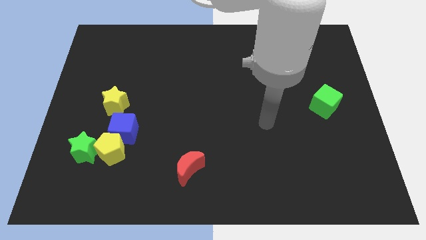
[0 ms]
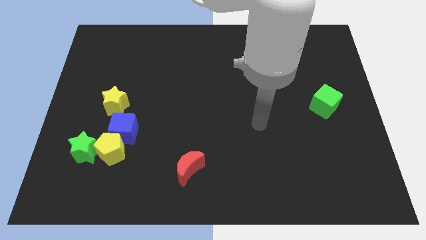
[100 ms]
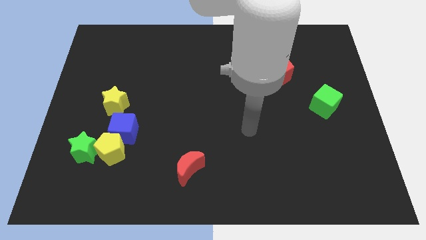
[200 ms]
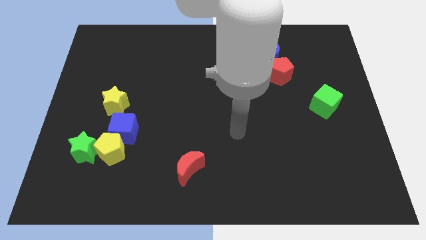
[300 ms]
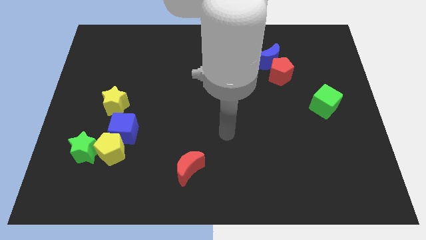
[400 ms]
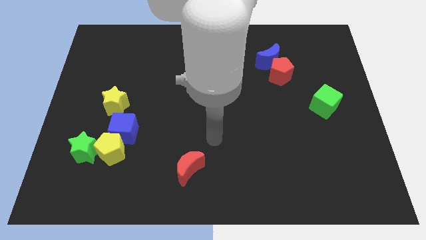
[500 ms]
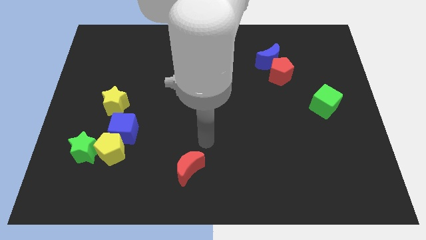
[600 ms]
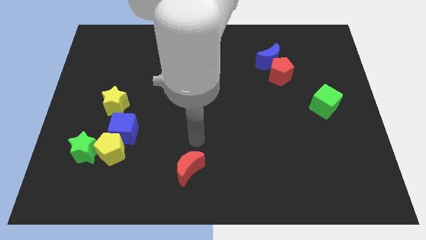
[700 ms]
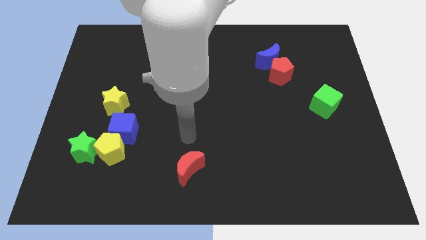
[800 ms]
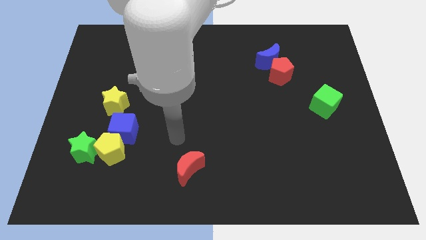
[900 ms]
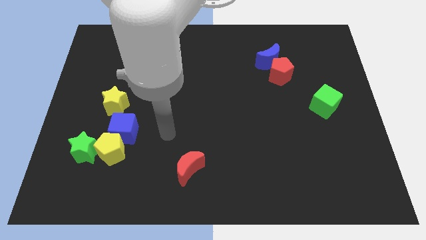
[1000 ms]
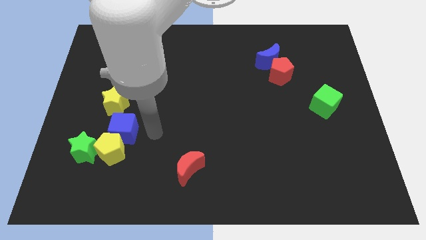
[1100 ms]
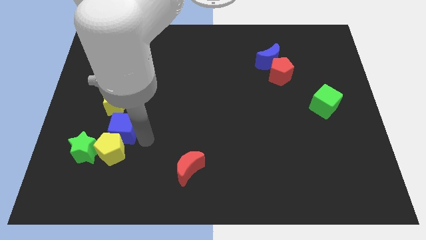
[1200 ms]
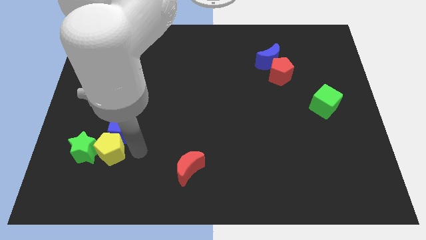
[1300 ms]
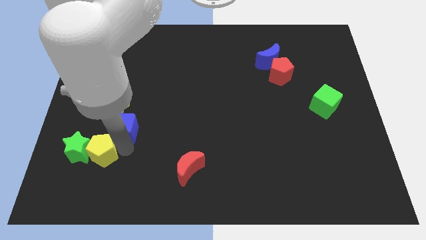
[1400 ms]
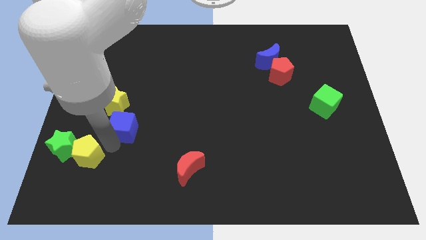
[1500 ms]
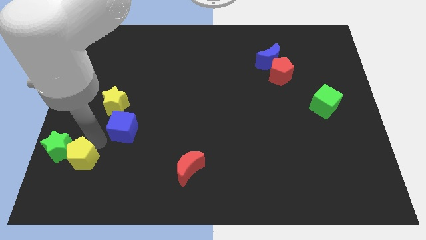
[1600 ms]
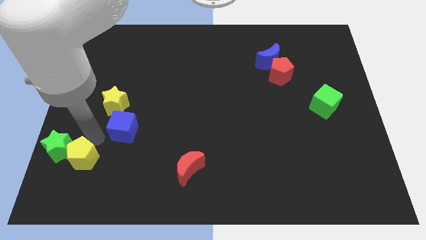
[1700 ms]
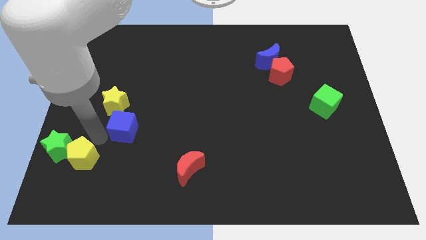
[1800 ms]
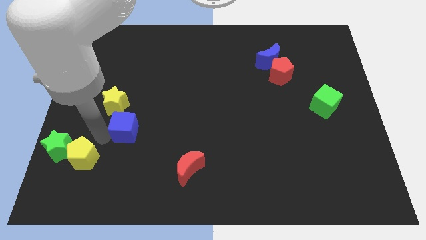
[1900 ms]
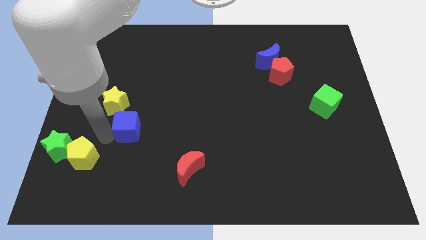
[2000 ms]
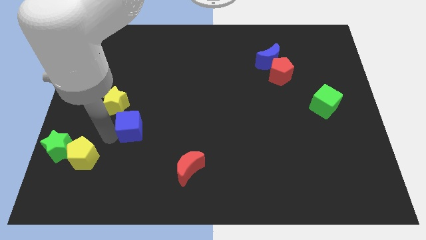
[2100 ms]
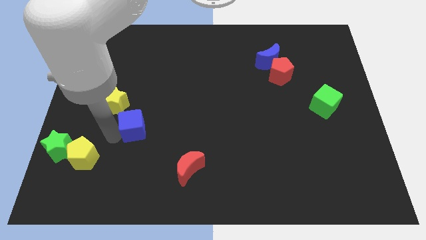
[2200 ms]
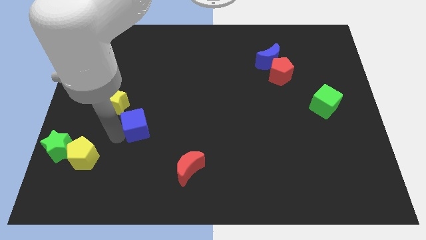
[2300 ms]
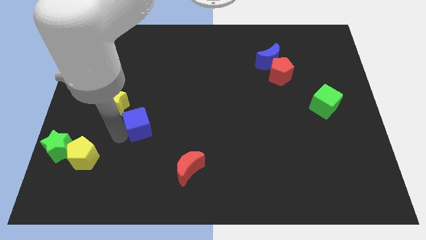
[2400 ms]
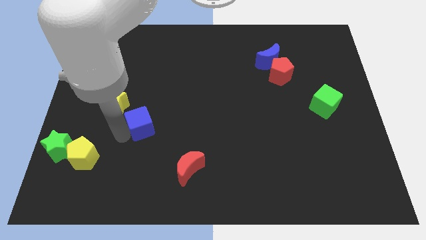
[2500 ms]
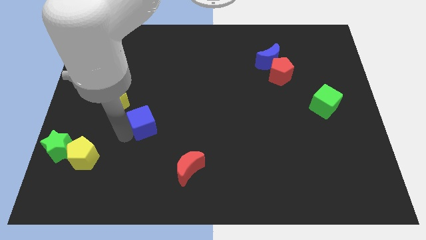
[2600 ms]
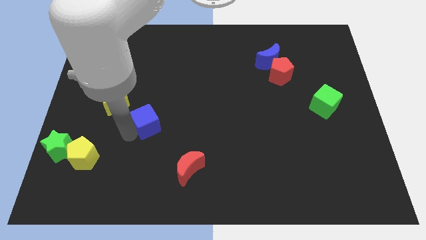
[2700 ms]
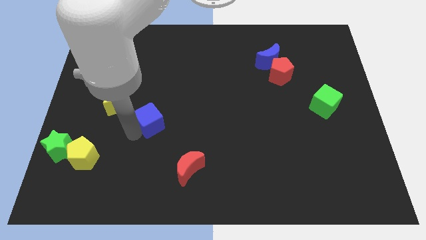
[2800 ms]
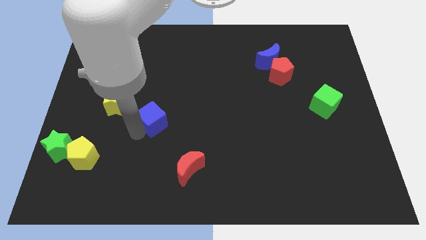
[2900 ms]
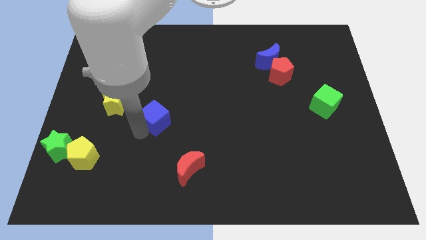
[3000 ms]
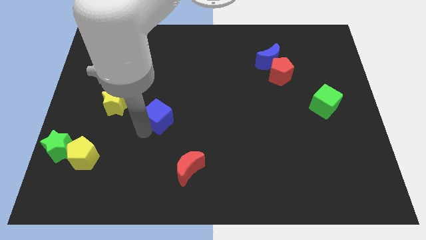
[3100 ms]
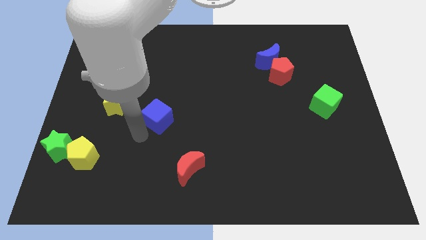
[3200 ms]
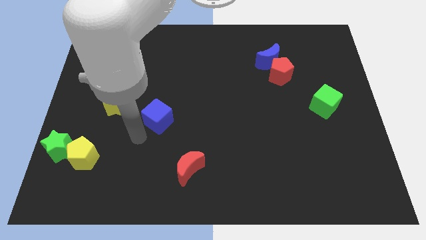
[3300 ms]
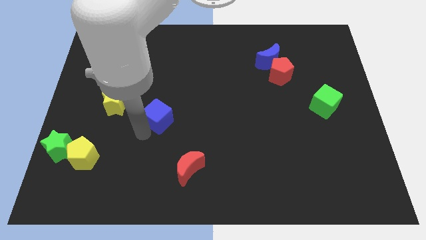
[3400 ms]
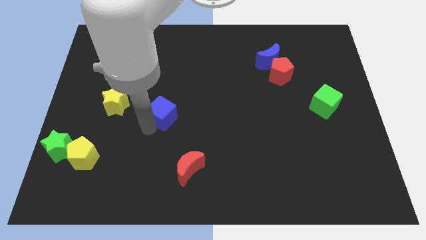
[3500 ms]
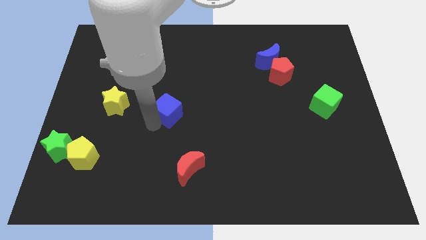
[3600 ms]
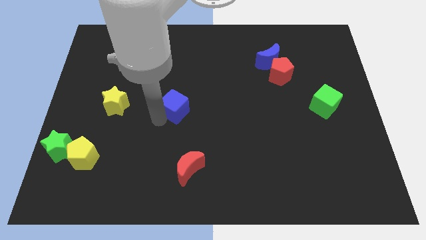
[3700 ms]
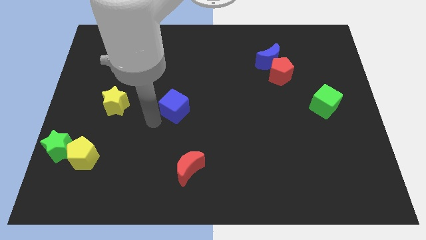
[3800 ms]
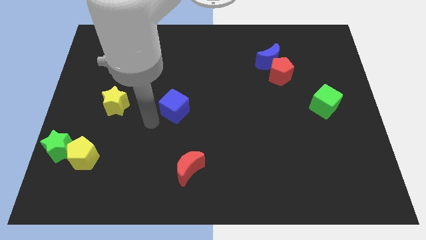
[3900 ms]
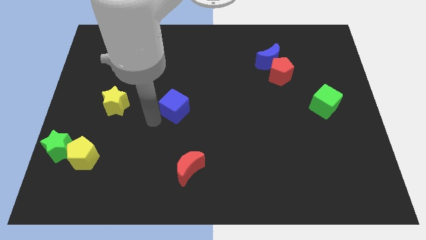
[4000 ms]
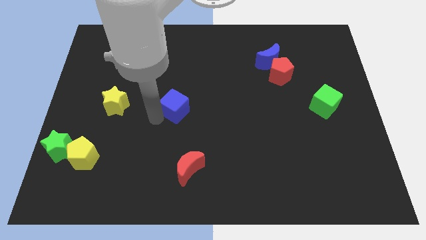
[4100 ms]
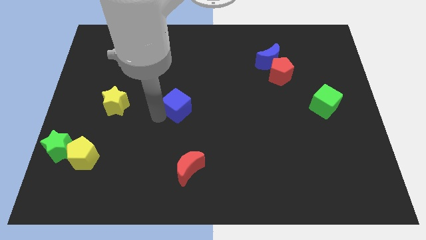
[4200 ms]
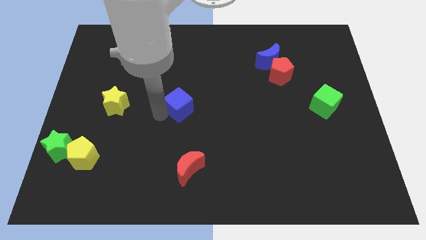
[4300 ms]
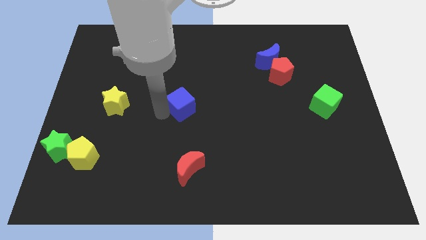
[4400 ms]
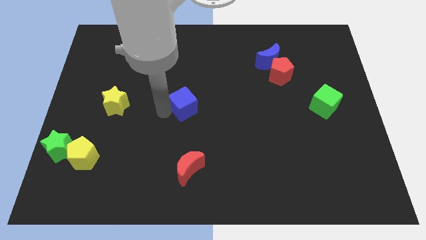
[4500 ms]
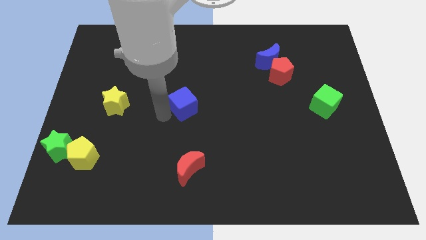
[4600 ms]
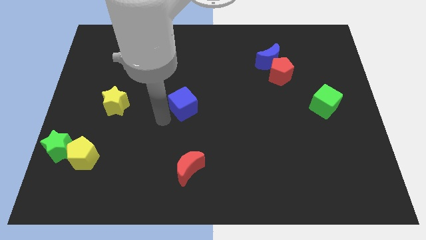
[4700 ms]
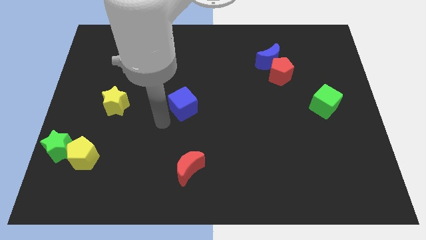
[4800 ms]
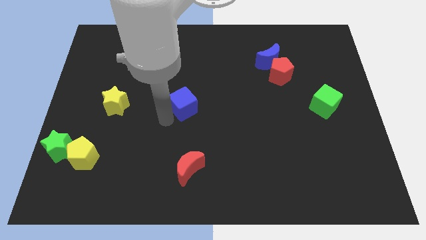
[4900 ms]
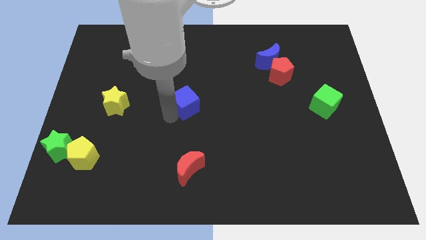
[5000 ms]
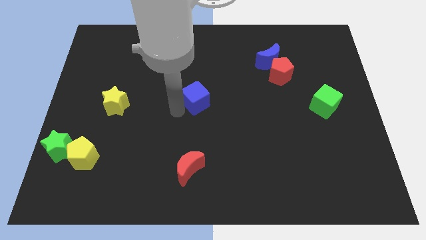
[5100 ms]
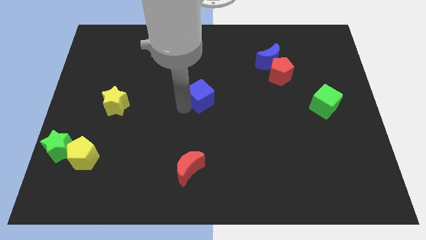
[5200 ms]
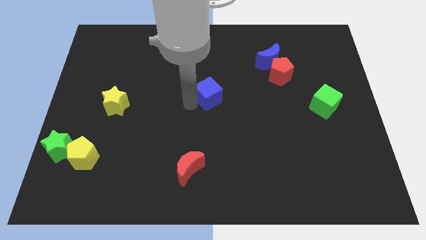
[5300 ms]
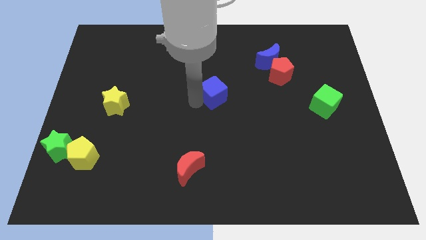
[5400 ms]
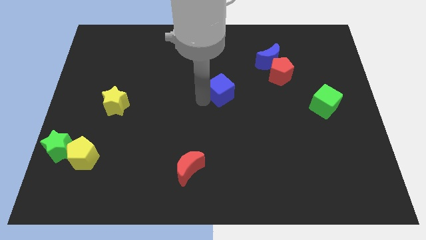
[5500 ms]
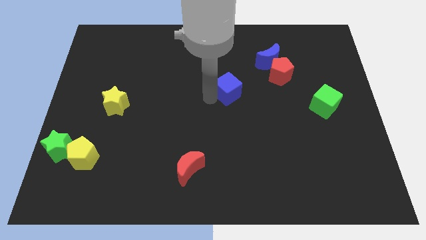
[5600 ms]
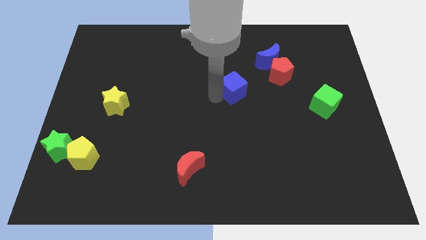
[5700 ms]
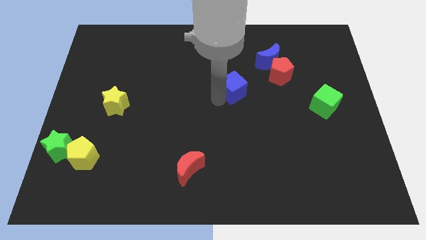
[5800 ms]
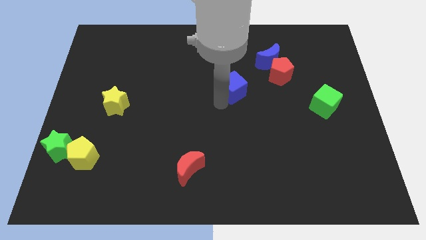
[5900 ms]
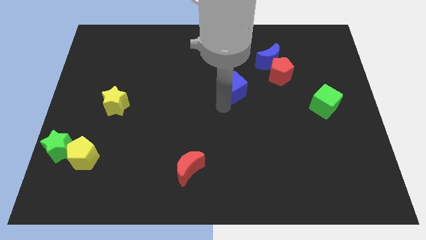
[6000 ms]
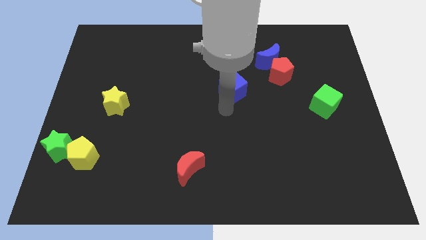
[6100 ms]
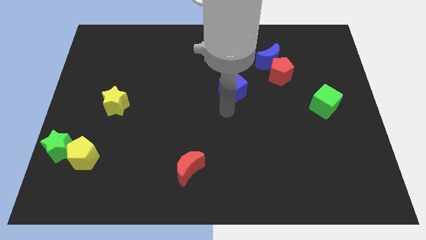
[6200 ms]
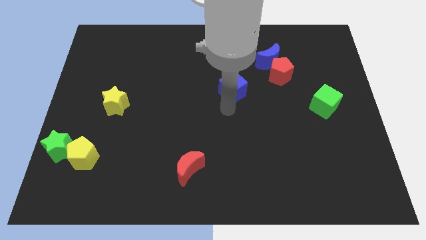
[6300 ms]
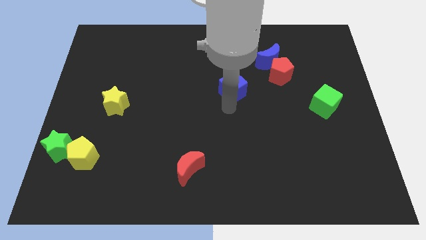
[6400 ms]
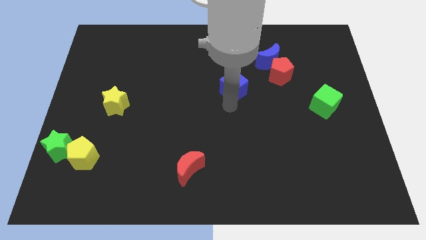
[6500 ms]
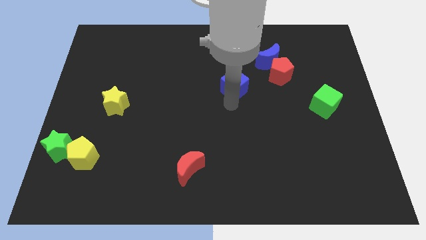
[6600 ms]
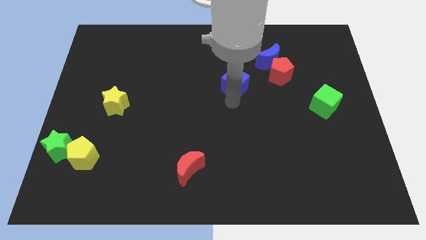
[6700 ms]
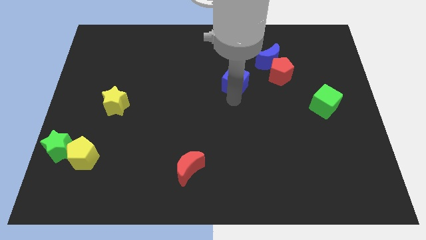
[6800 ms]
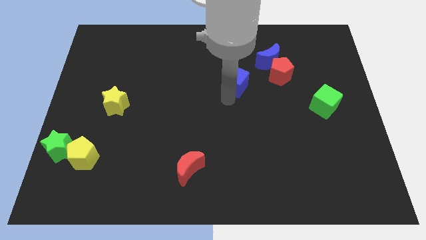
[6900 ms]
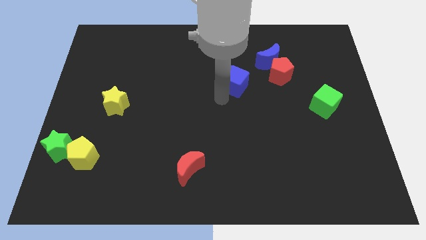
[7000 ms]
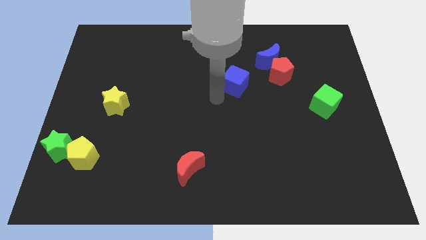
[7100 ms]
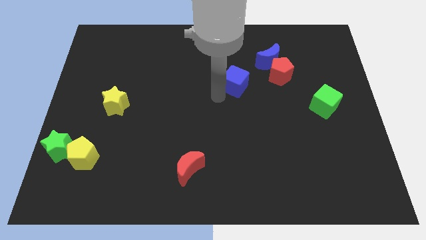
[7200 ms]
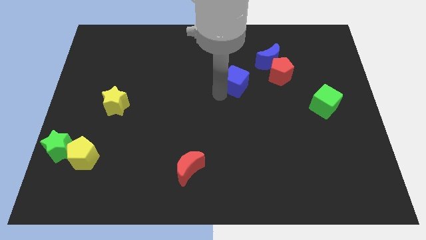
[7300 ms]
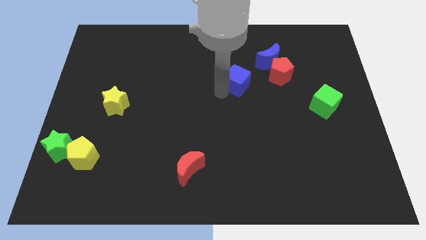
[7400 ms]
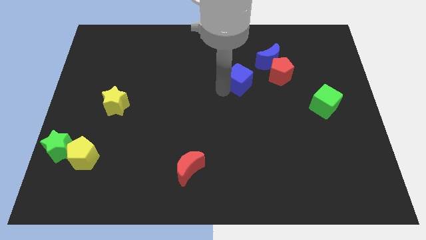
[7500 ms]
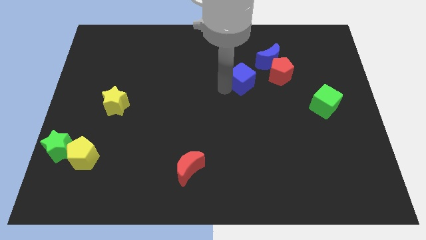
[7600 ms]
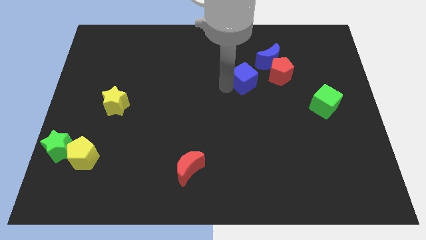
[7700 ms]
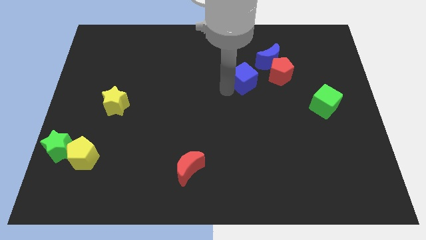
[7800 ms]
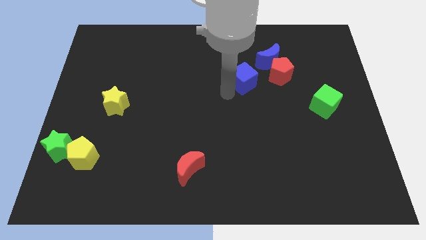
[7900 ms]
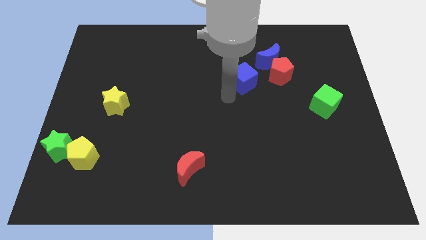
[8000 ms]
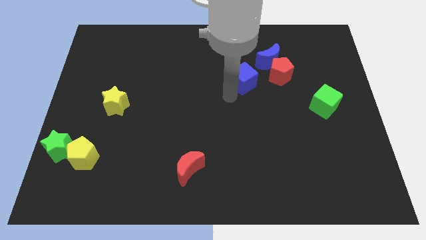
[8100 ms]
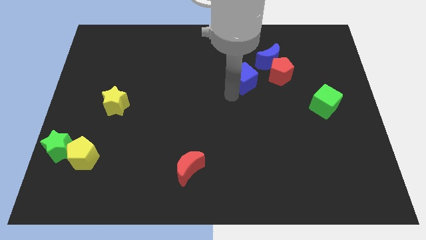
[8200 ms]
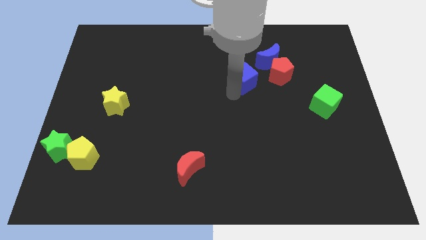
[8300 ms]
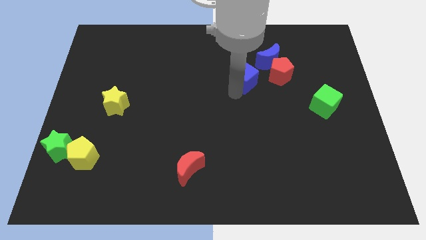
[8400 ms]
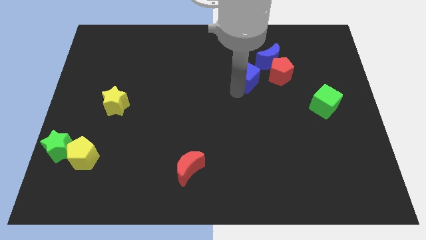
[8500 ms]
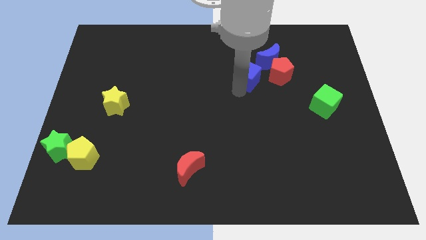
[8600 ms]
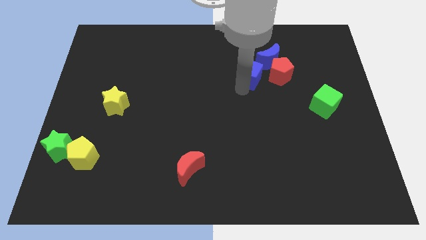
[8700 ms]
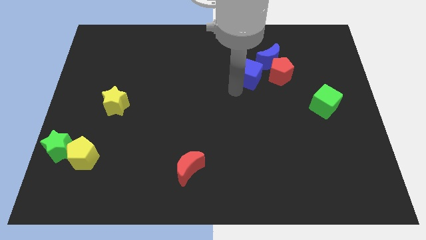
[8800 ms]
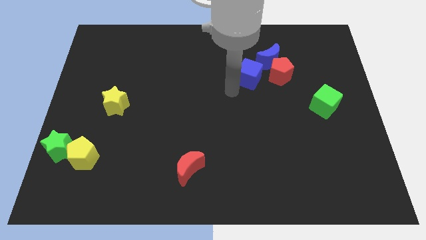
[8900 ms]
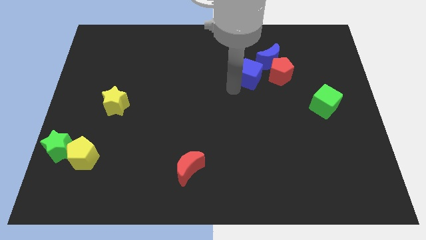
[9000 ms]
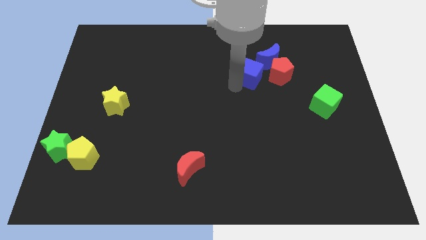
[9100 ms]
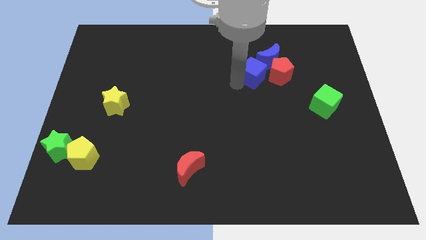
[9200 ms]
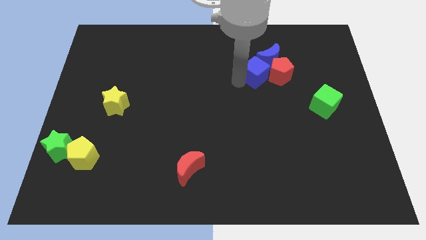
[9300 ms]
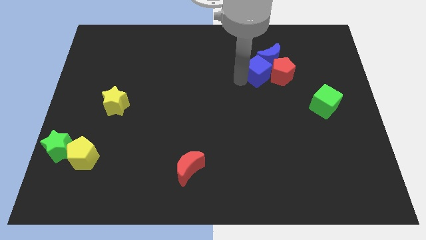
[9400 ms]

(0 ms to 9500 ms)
slide the blue cube towards the blue moon
